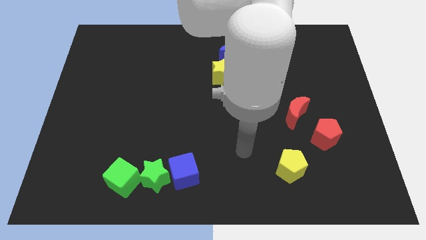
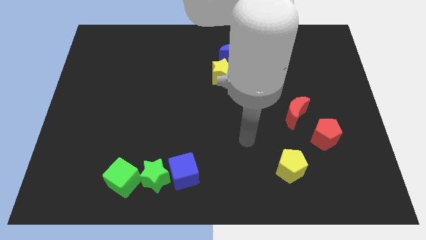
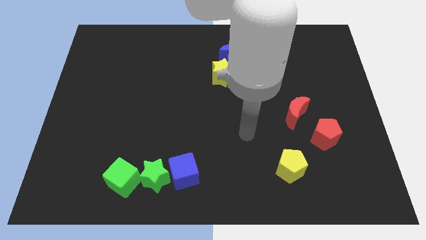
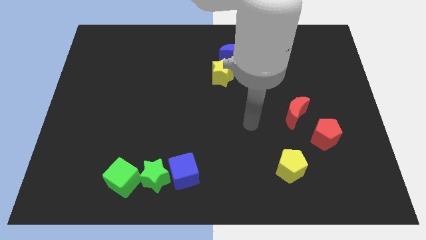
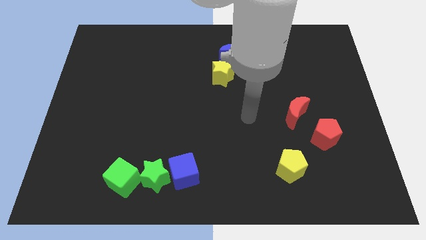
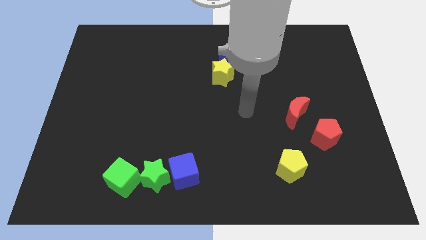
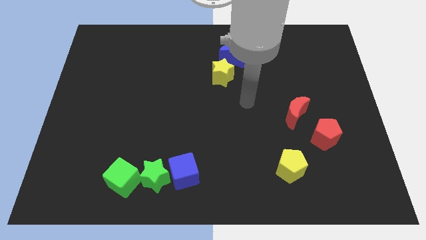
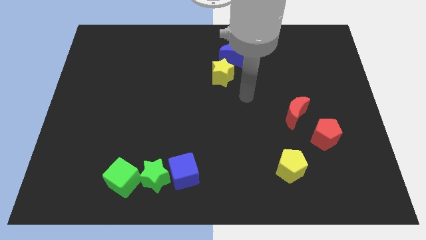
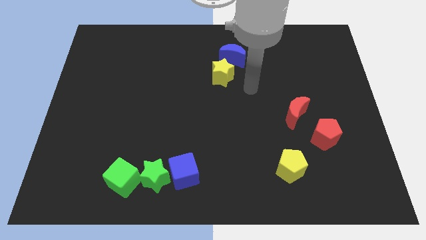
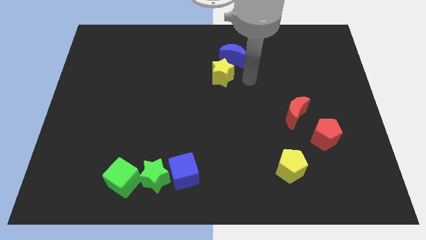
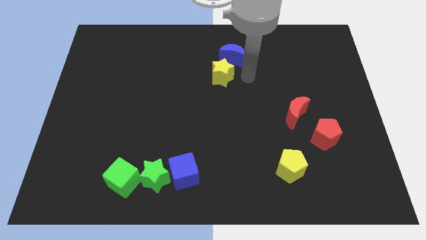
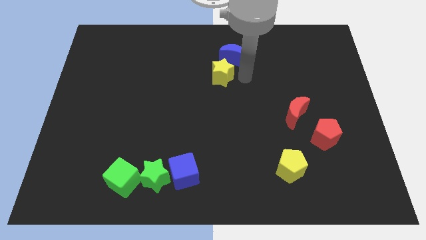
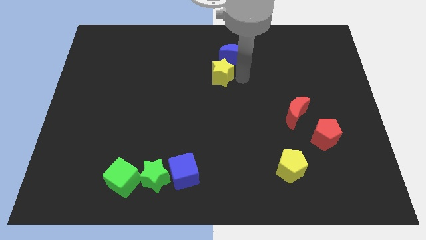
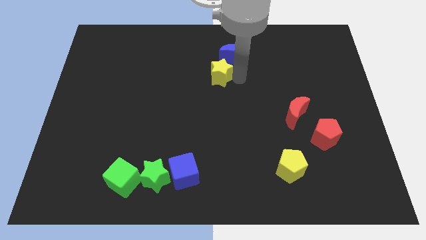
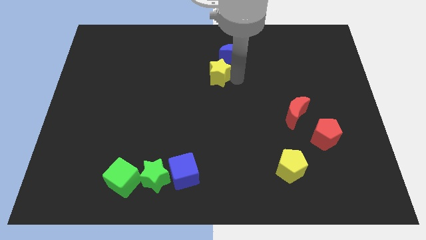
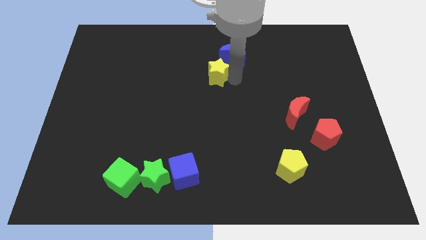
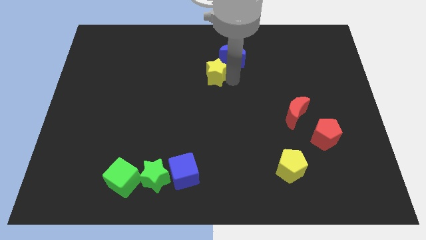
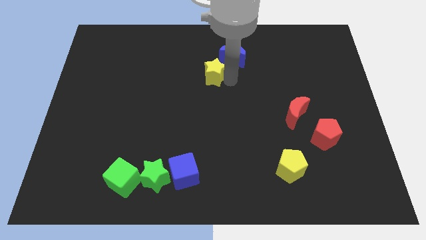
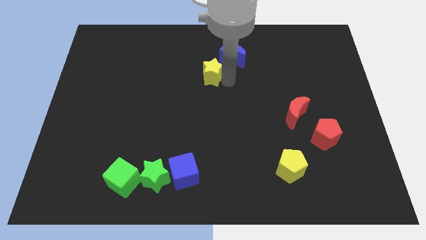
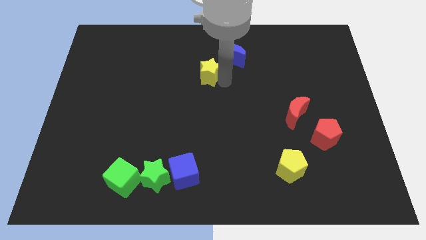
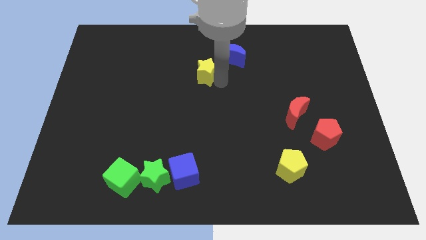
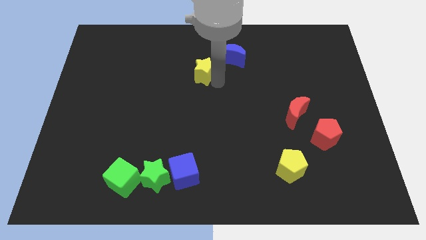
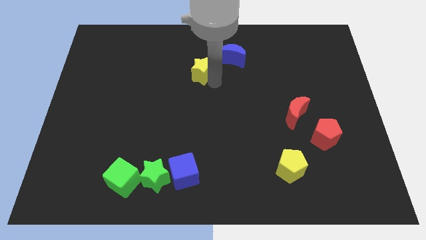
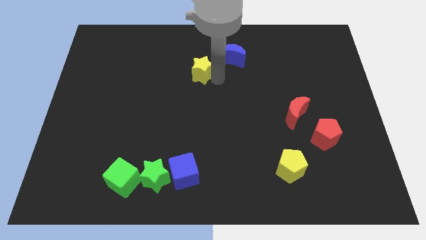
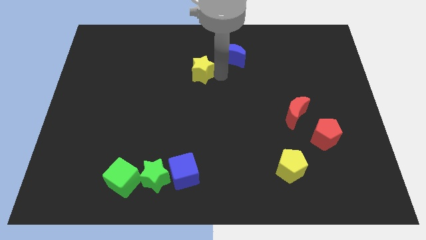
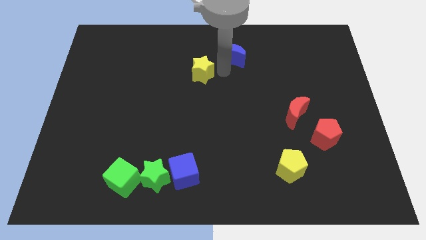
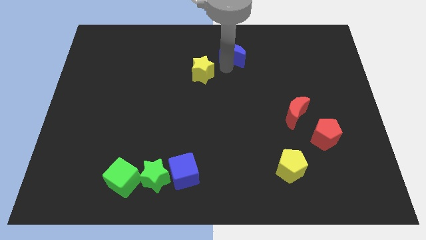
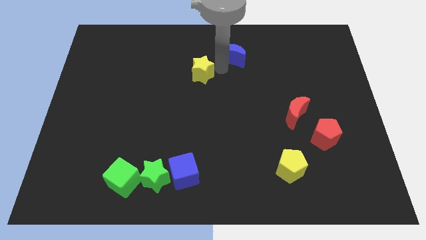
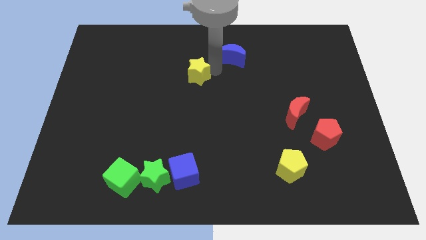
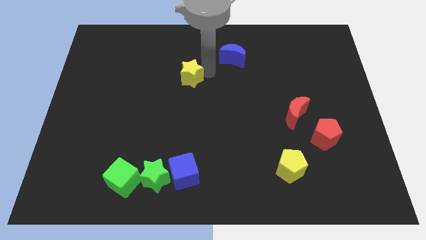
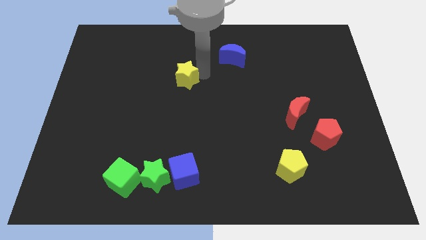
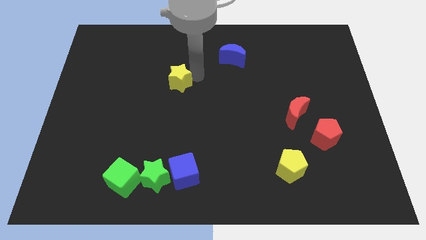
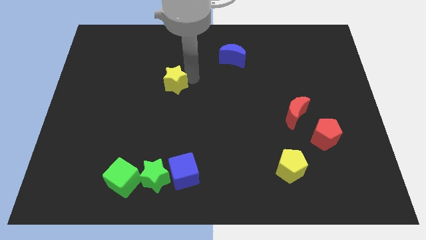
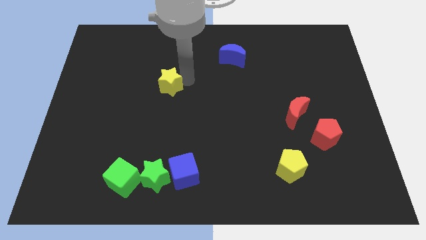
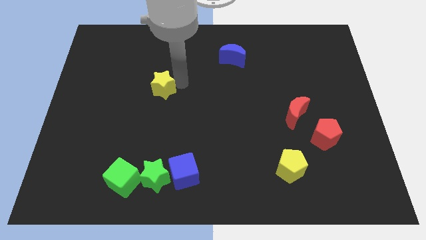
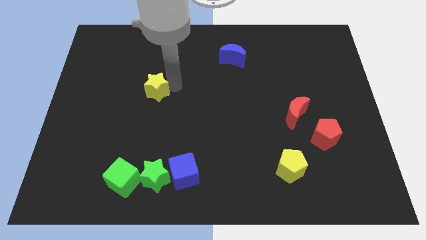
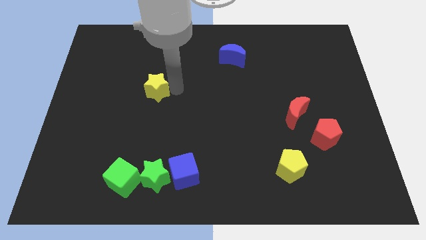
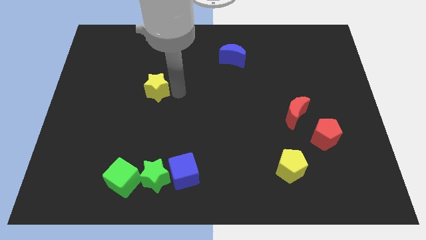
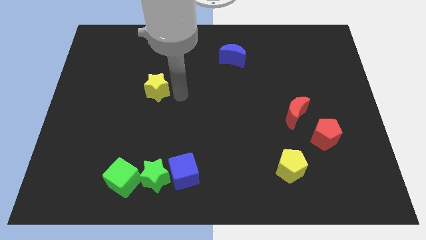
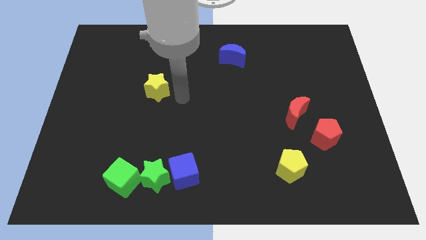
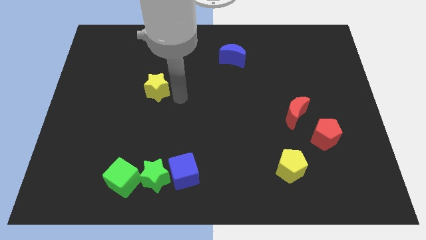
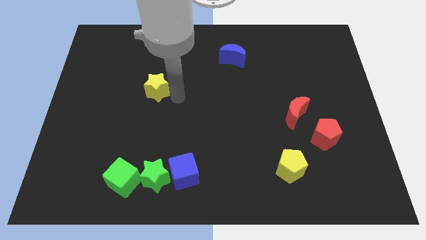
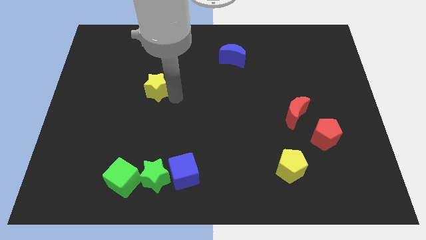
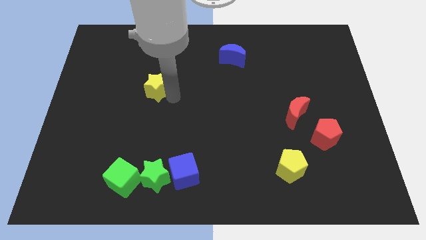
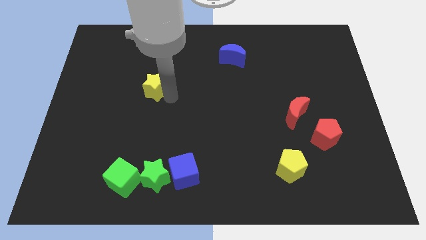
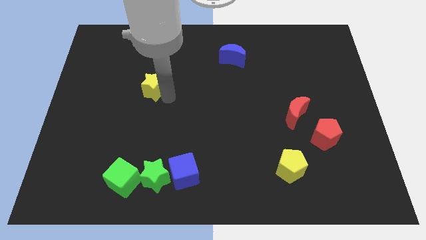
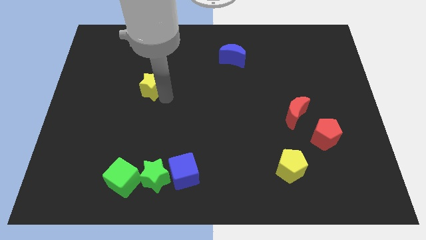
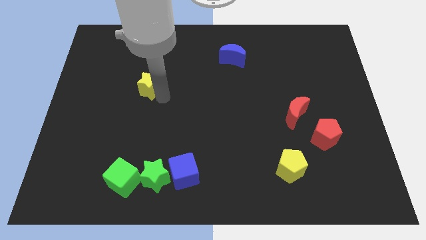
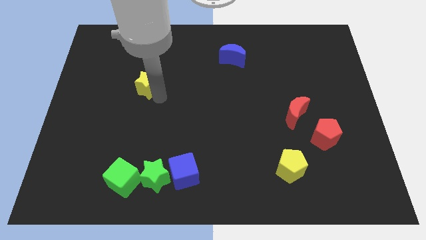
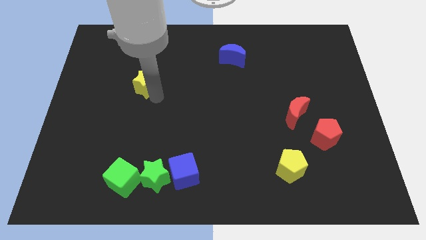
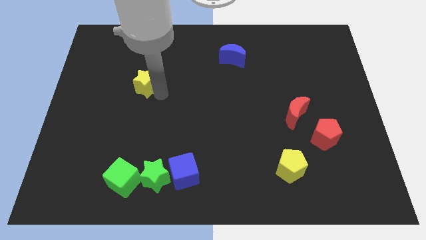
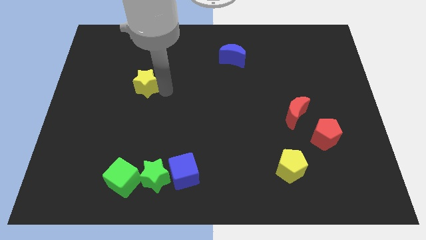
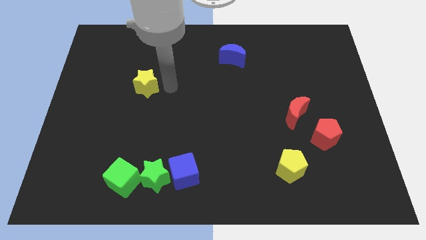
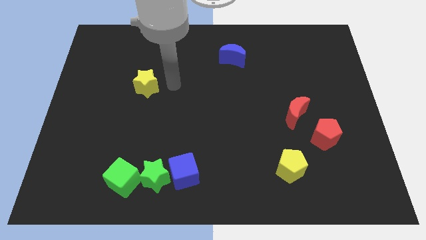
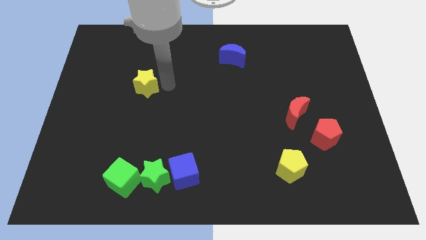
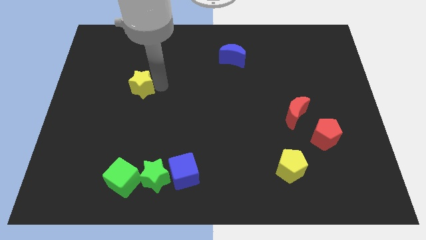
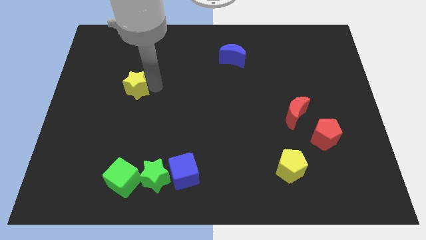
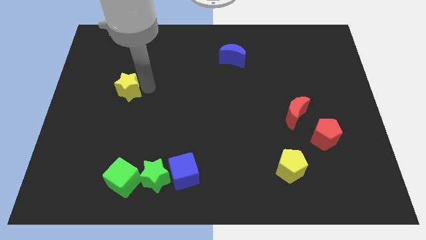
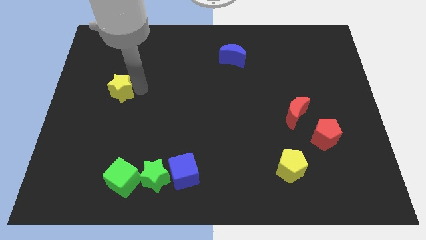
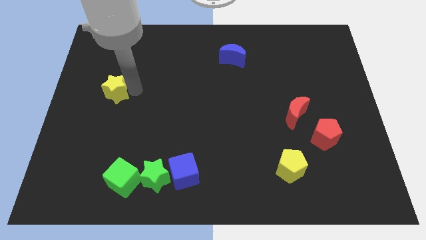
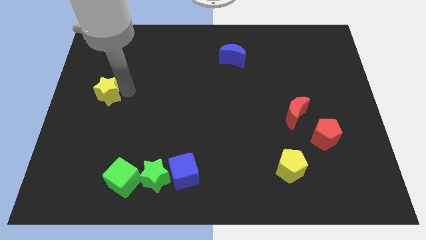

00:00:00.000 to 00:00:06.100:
move the yellow star to the center left
